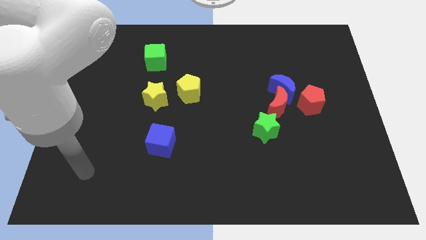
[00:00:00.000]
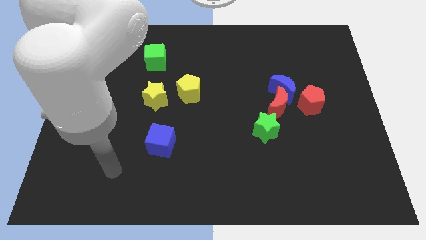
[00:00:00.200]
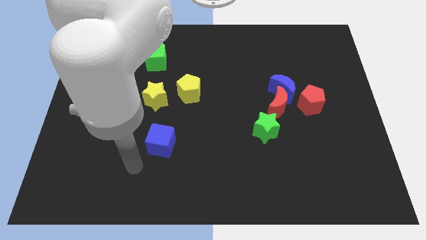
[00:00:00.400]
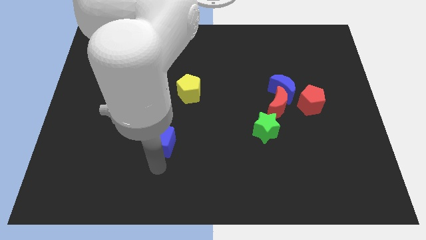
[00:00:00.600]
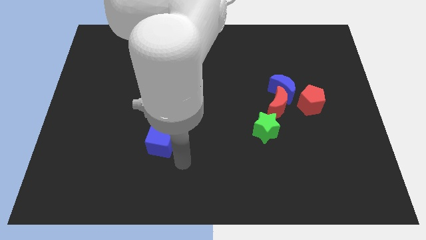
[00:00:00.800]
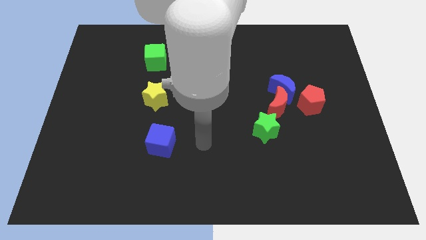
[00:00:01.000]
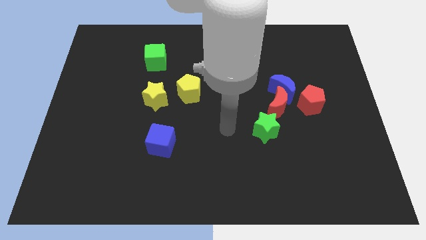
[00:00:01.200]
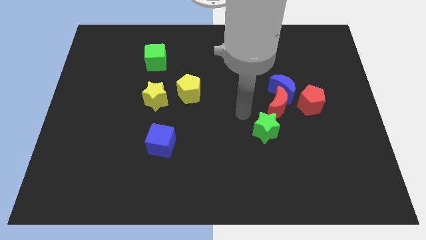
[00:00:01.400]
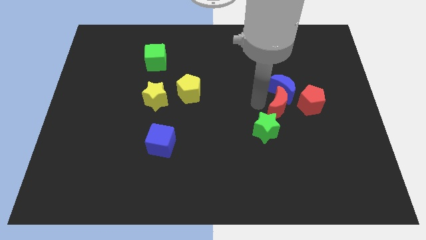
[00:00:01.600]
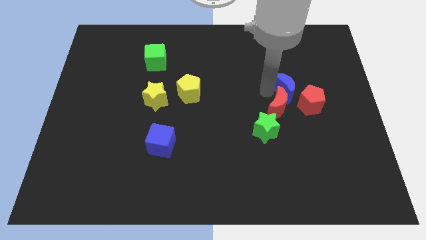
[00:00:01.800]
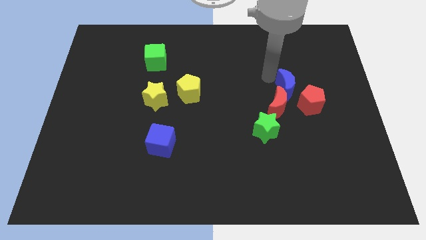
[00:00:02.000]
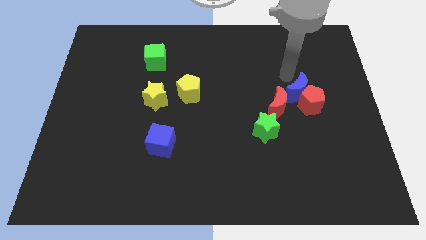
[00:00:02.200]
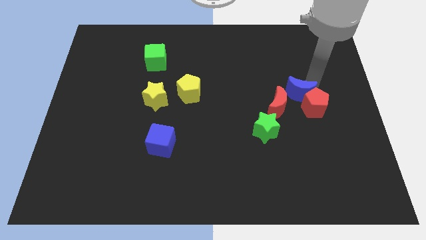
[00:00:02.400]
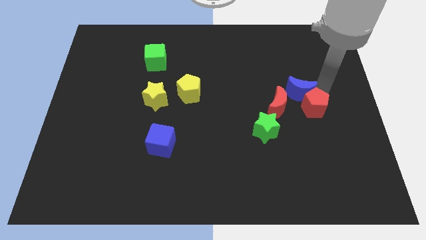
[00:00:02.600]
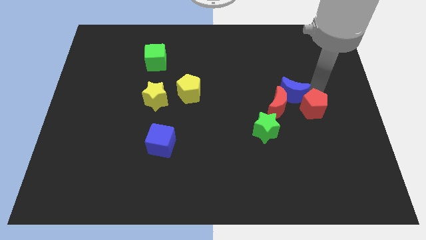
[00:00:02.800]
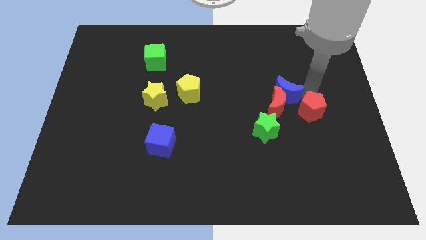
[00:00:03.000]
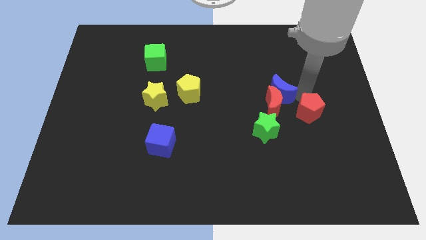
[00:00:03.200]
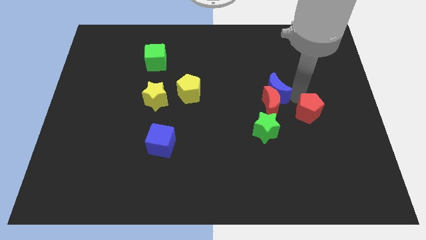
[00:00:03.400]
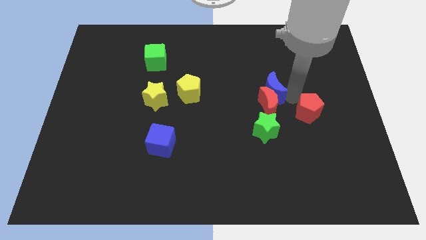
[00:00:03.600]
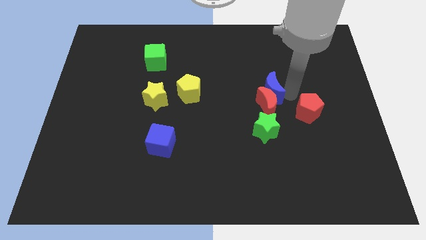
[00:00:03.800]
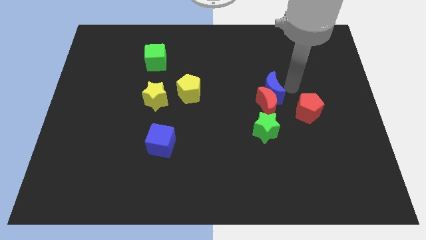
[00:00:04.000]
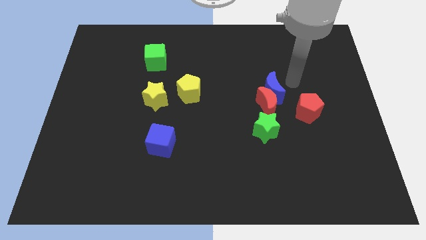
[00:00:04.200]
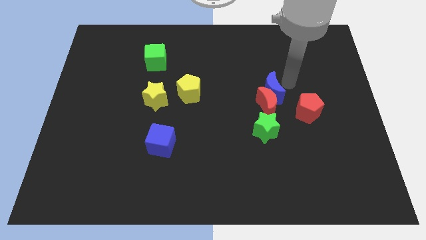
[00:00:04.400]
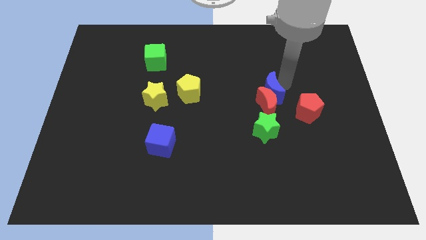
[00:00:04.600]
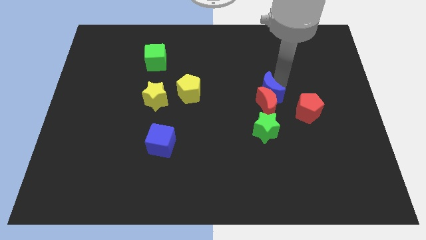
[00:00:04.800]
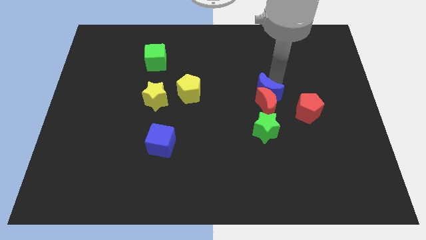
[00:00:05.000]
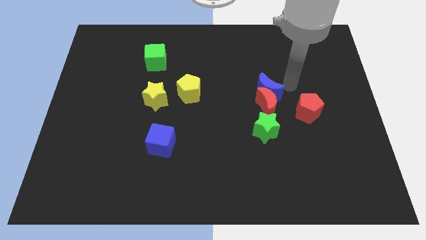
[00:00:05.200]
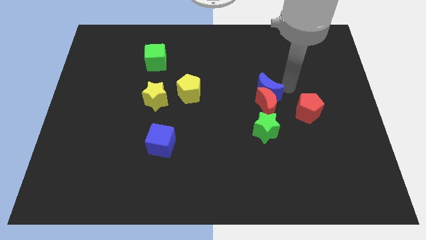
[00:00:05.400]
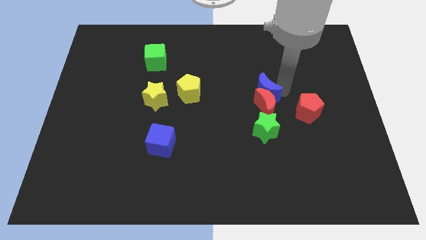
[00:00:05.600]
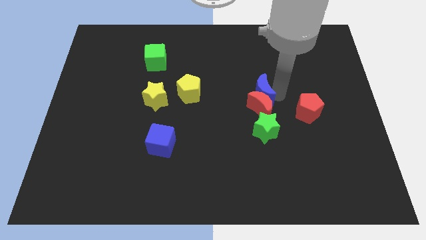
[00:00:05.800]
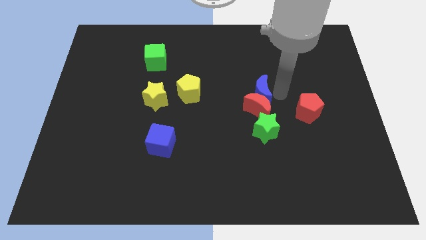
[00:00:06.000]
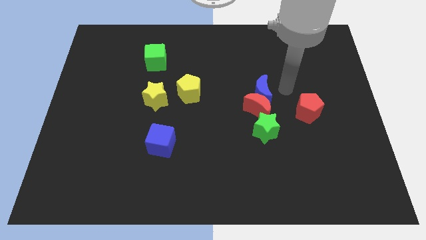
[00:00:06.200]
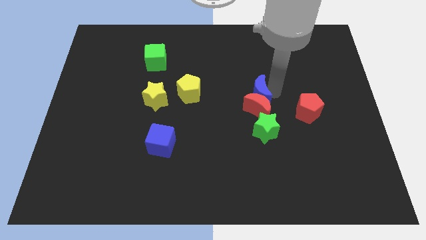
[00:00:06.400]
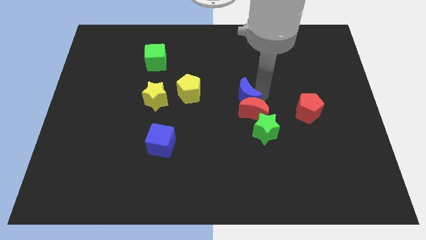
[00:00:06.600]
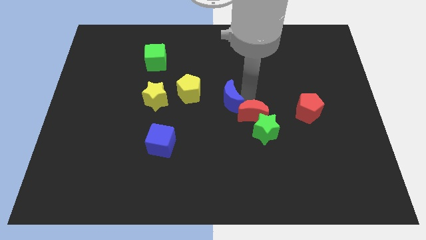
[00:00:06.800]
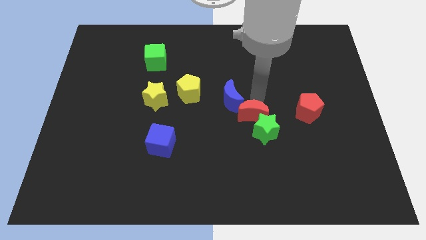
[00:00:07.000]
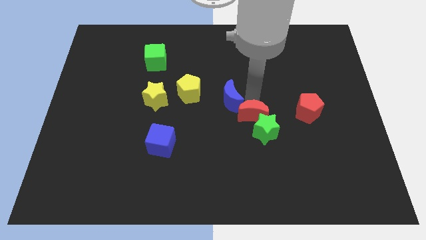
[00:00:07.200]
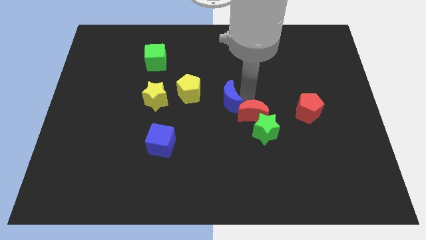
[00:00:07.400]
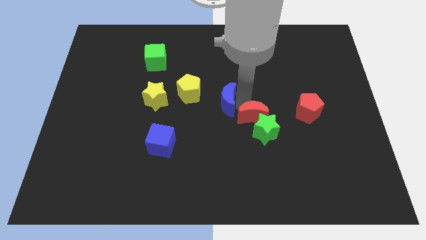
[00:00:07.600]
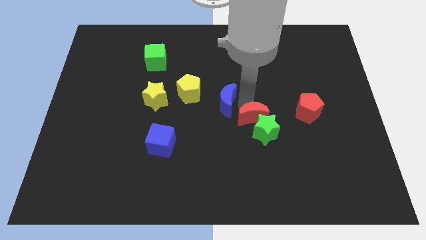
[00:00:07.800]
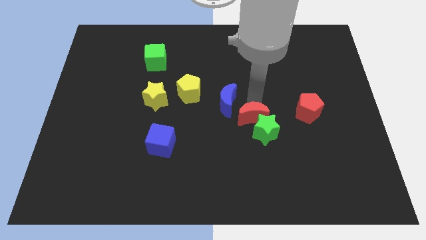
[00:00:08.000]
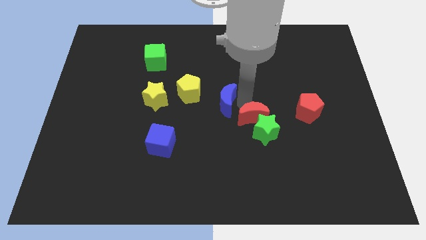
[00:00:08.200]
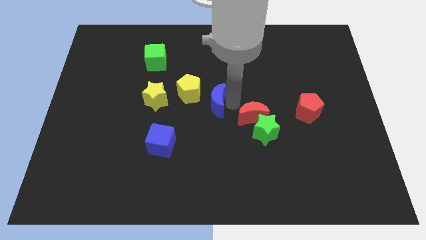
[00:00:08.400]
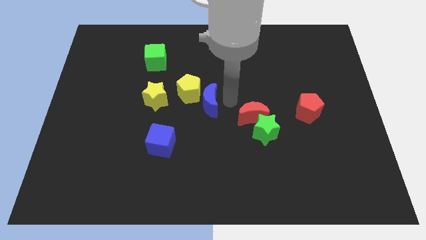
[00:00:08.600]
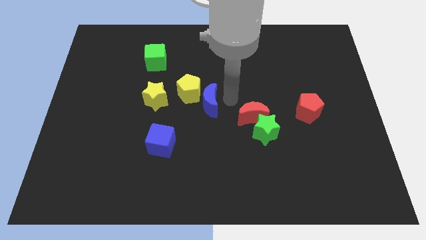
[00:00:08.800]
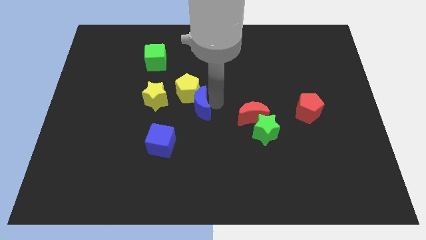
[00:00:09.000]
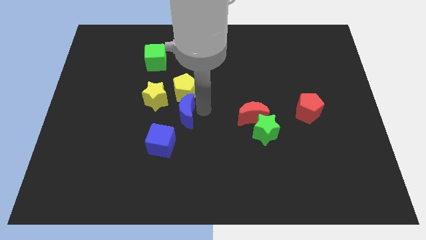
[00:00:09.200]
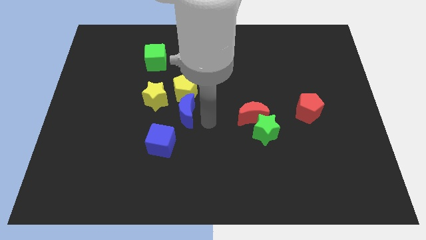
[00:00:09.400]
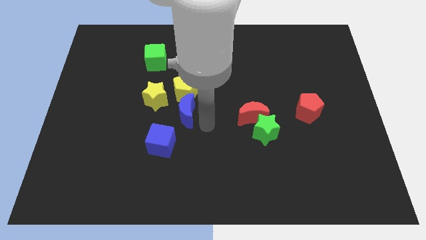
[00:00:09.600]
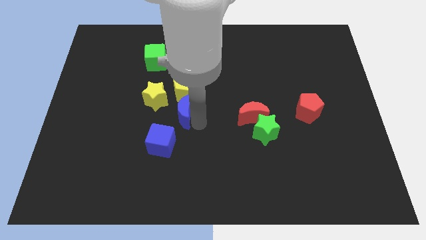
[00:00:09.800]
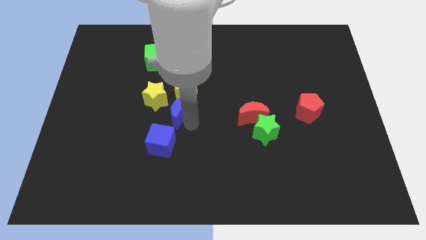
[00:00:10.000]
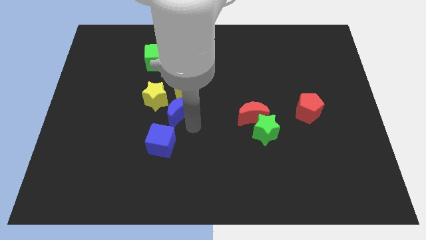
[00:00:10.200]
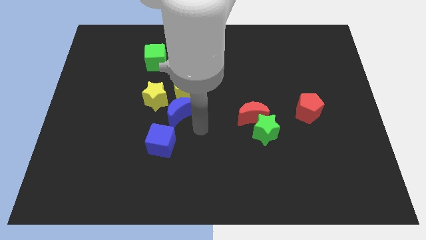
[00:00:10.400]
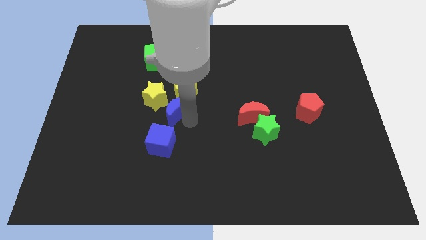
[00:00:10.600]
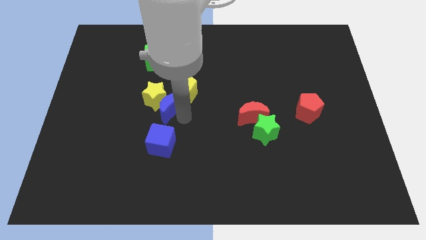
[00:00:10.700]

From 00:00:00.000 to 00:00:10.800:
slide the blue moon towards the yellow star

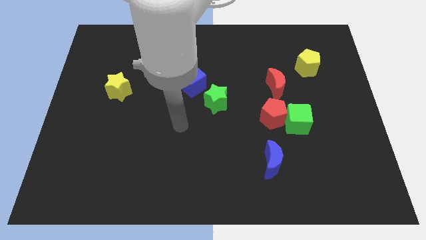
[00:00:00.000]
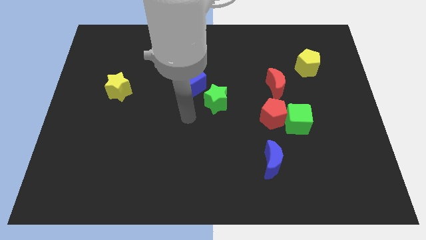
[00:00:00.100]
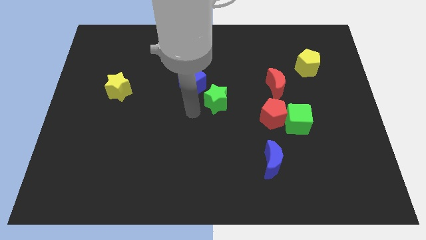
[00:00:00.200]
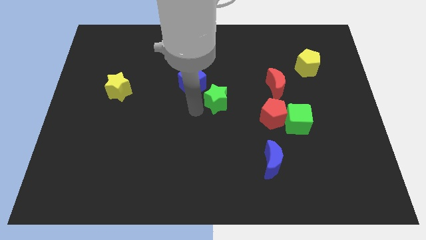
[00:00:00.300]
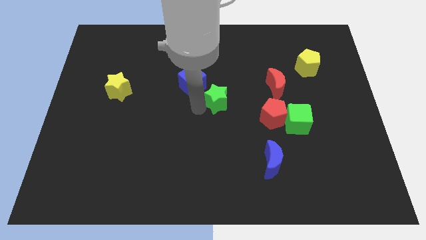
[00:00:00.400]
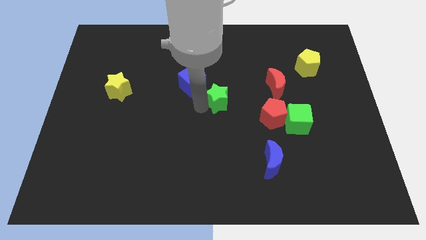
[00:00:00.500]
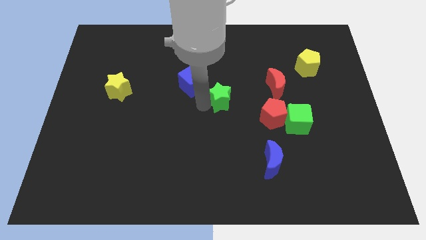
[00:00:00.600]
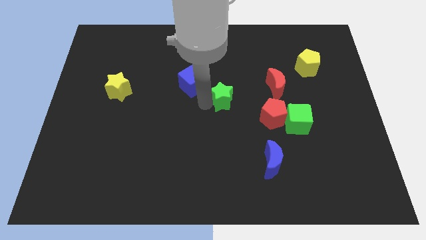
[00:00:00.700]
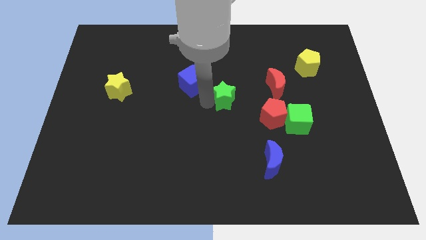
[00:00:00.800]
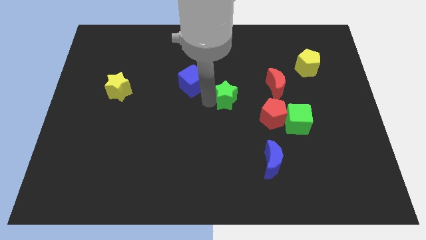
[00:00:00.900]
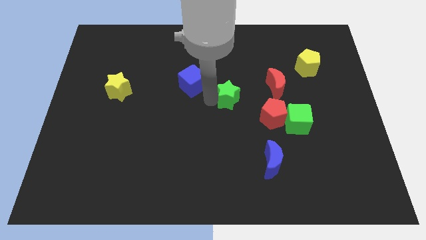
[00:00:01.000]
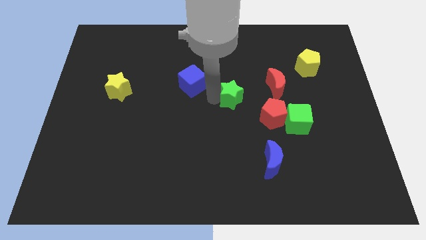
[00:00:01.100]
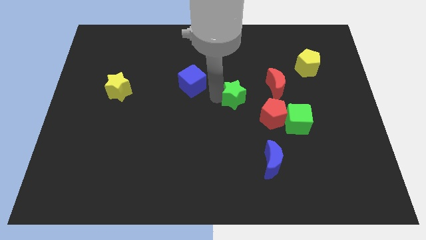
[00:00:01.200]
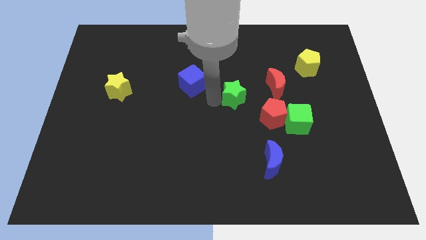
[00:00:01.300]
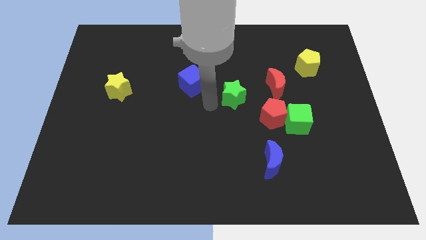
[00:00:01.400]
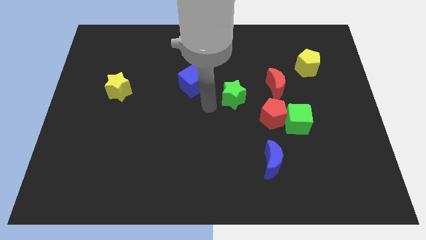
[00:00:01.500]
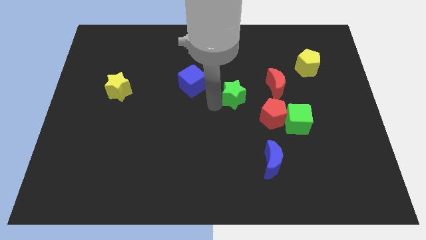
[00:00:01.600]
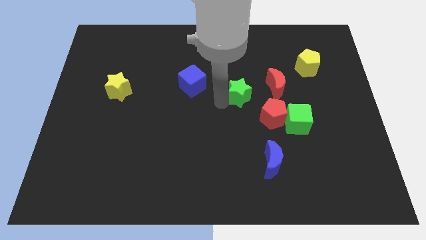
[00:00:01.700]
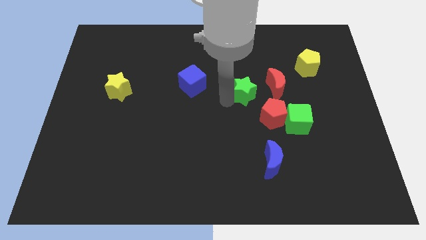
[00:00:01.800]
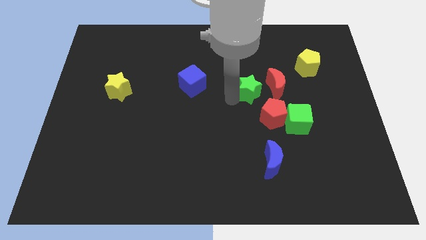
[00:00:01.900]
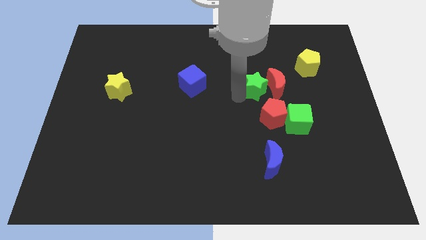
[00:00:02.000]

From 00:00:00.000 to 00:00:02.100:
put the green star next to the red moon
